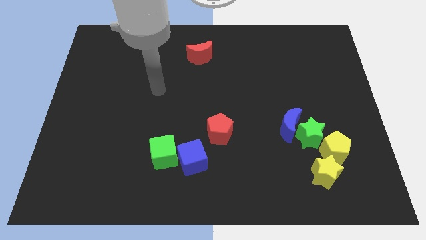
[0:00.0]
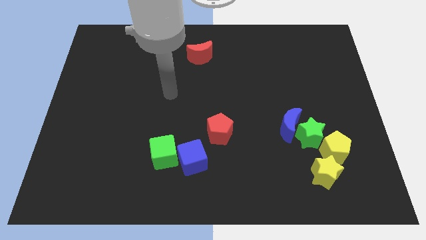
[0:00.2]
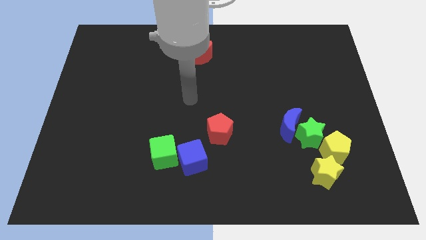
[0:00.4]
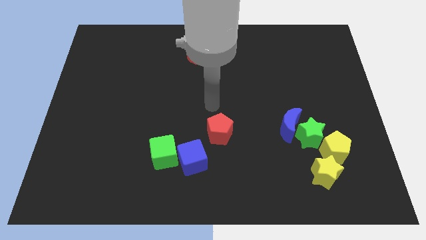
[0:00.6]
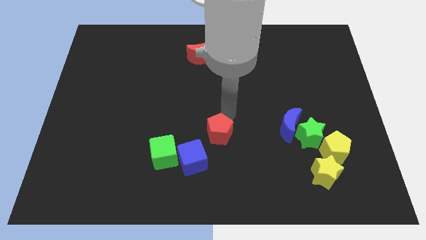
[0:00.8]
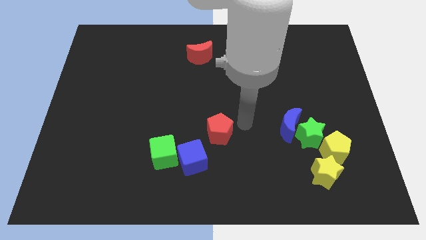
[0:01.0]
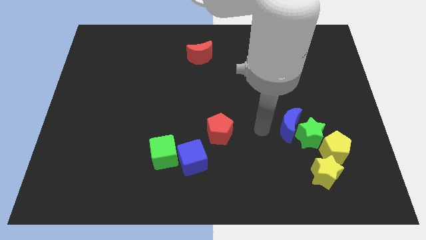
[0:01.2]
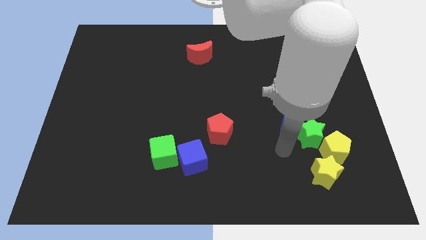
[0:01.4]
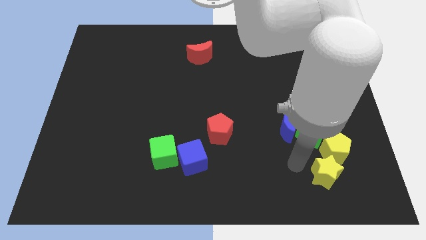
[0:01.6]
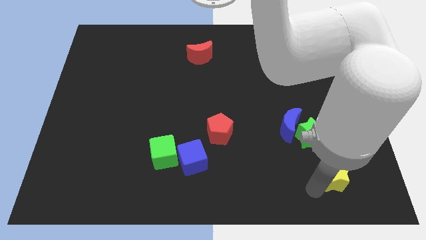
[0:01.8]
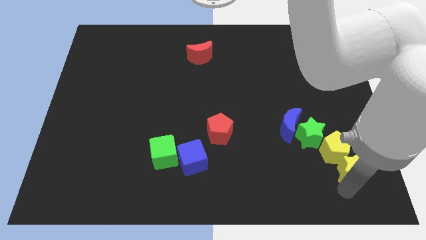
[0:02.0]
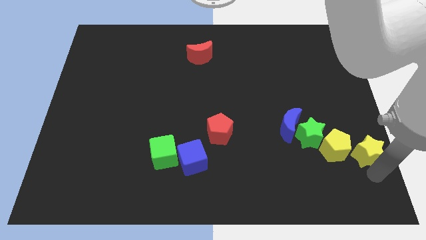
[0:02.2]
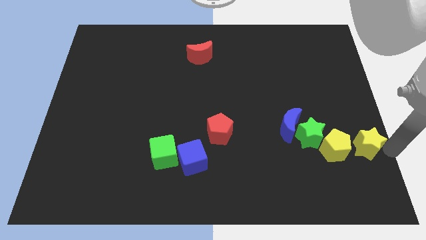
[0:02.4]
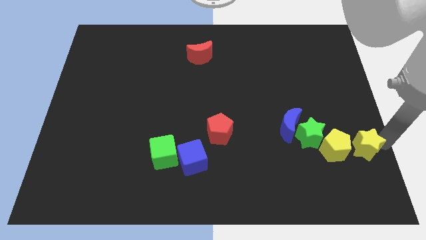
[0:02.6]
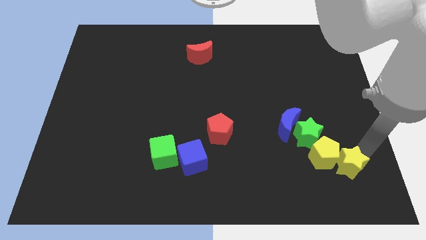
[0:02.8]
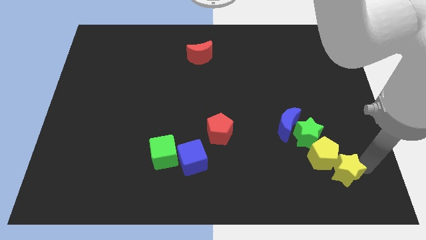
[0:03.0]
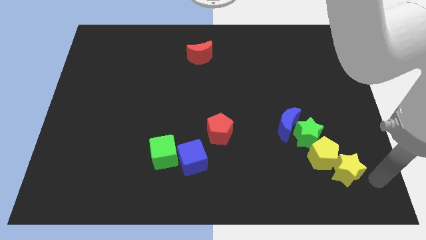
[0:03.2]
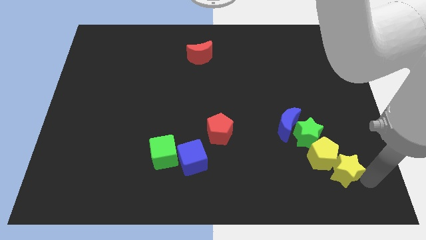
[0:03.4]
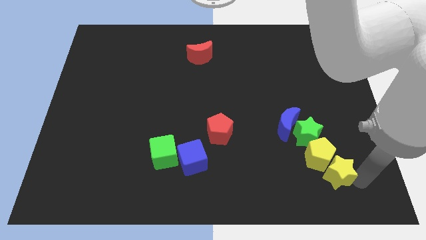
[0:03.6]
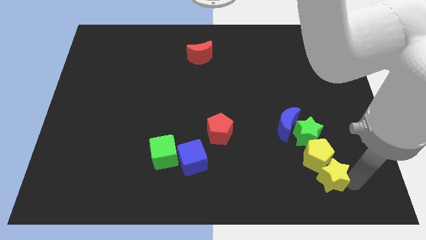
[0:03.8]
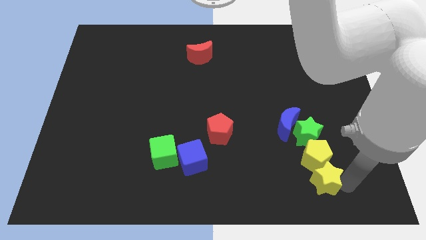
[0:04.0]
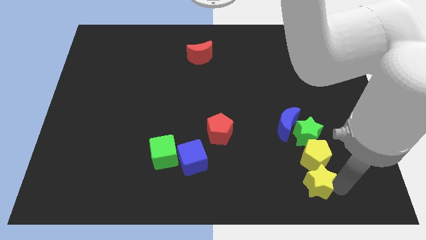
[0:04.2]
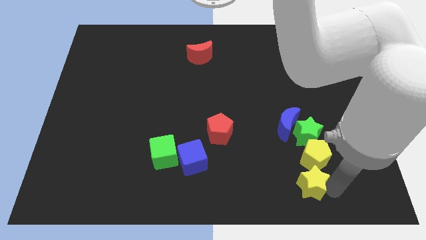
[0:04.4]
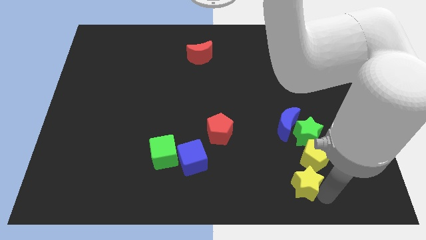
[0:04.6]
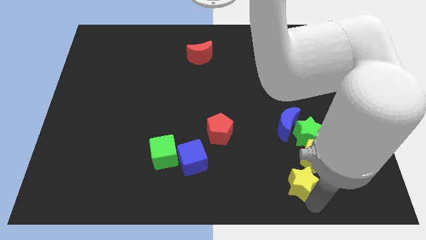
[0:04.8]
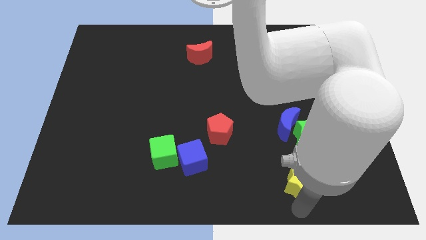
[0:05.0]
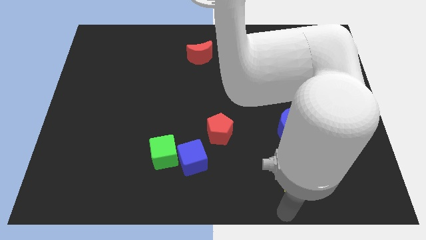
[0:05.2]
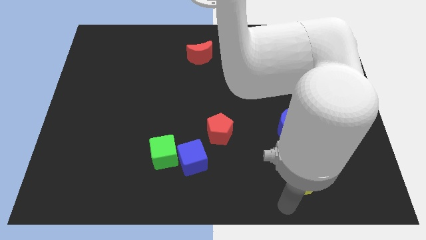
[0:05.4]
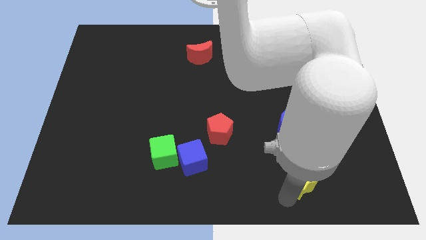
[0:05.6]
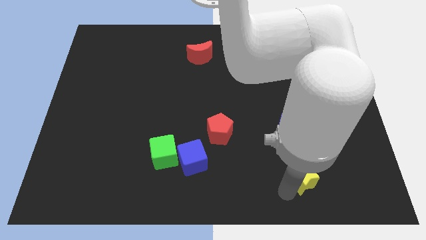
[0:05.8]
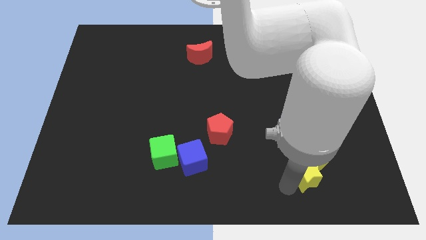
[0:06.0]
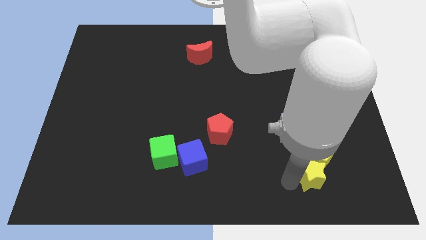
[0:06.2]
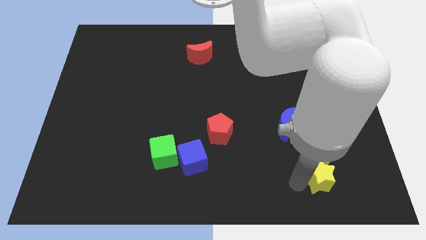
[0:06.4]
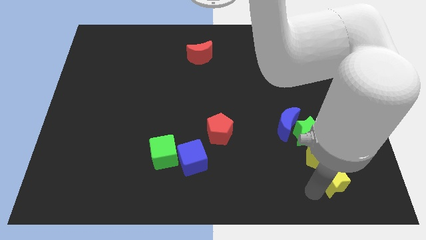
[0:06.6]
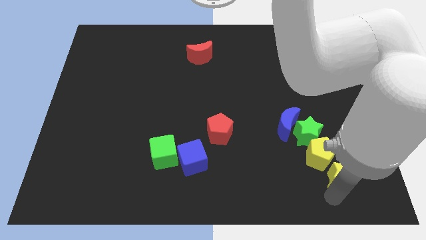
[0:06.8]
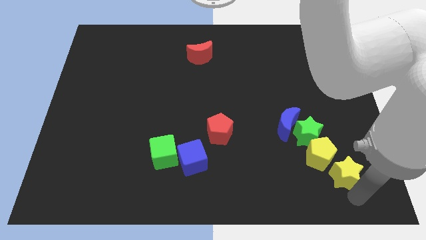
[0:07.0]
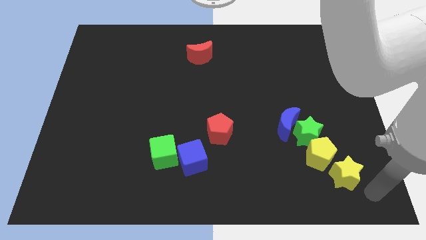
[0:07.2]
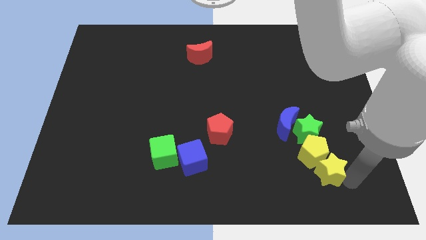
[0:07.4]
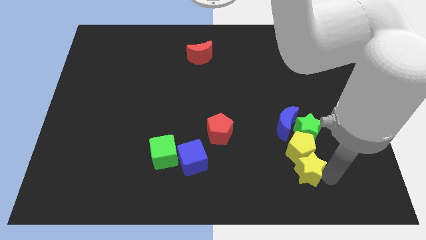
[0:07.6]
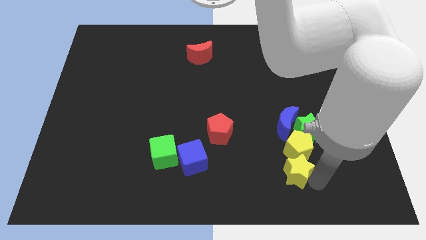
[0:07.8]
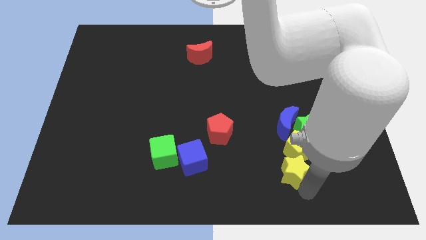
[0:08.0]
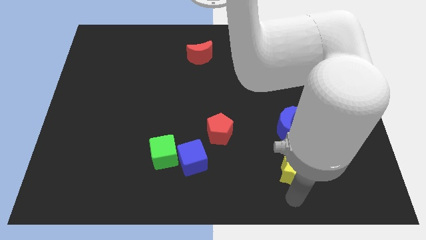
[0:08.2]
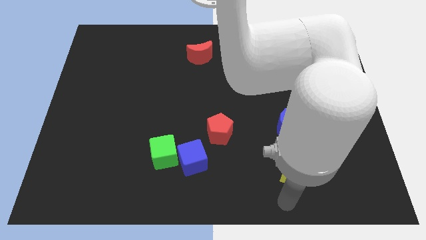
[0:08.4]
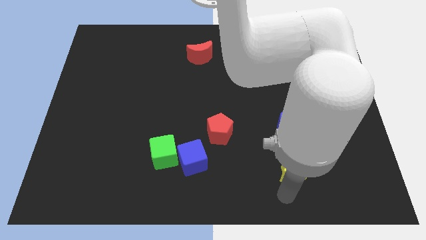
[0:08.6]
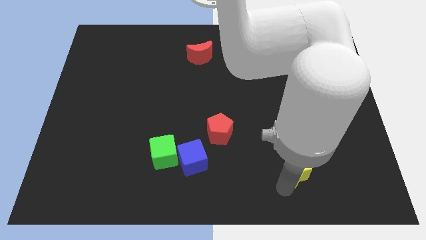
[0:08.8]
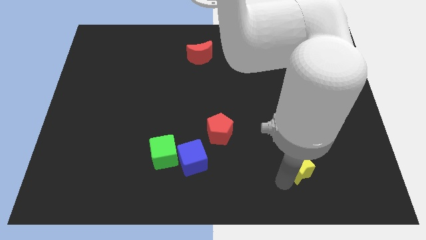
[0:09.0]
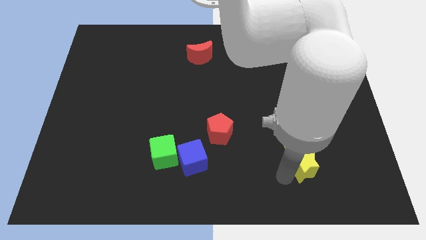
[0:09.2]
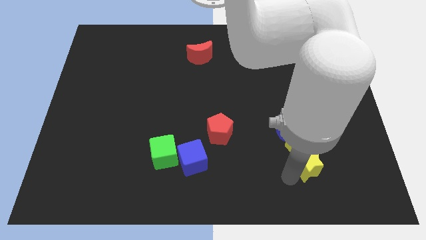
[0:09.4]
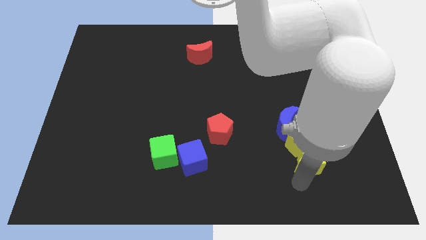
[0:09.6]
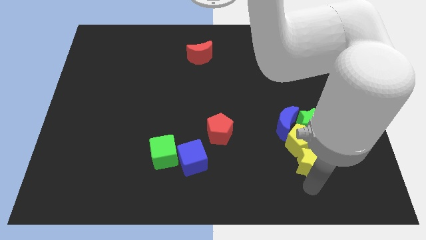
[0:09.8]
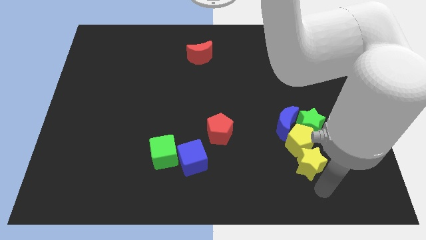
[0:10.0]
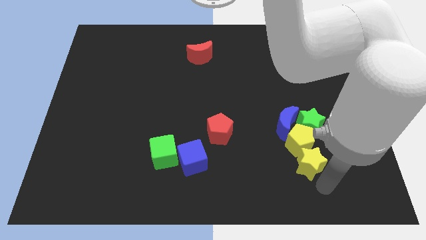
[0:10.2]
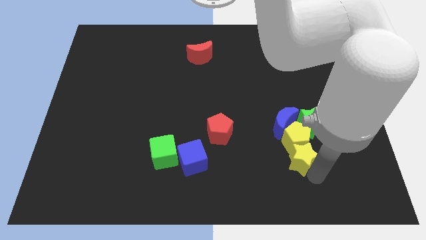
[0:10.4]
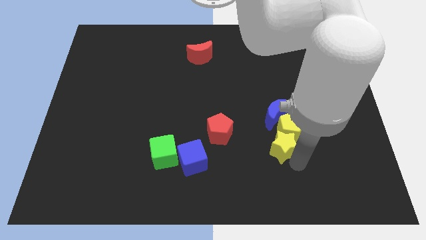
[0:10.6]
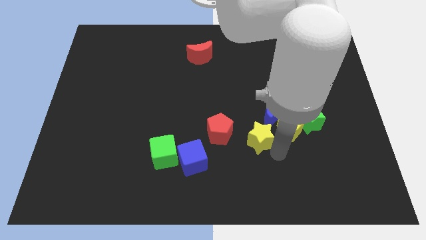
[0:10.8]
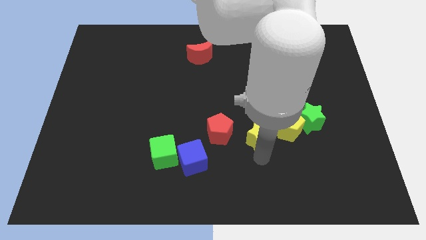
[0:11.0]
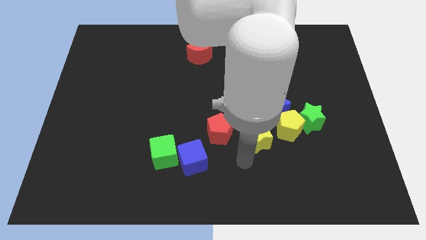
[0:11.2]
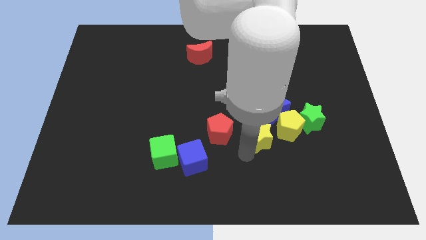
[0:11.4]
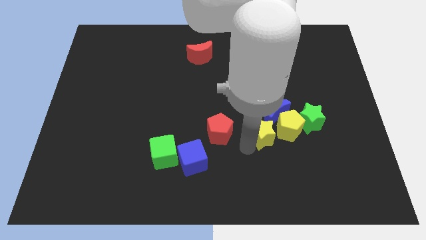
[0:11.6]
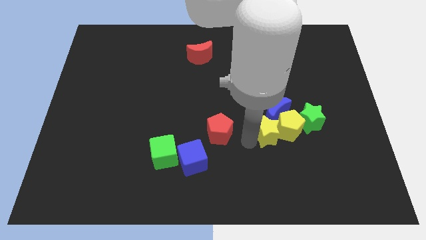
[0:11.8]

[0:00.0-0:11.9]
put the yellow star close to the blue moon

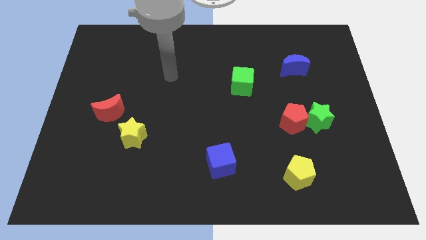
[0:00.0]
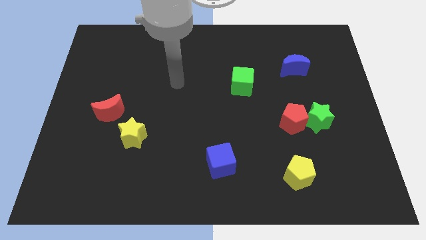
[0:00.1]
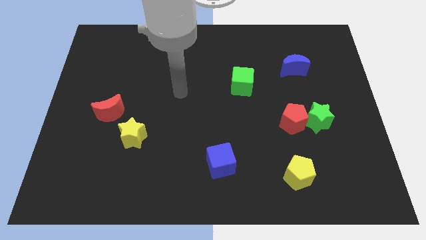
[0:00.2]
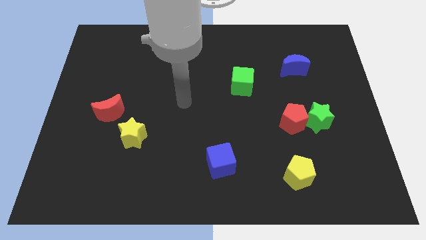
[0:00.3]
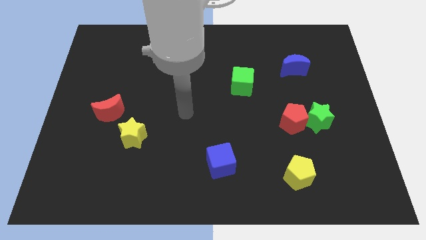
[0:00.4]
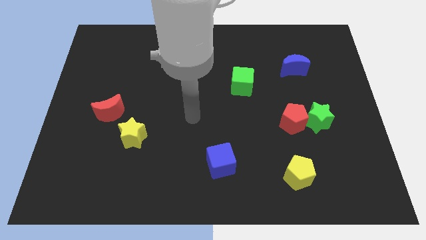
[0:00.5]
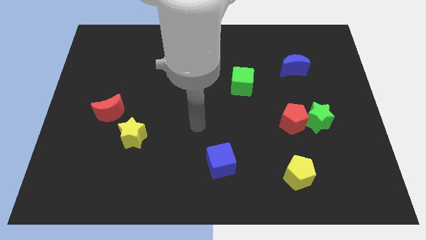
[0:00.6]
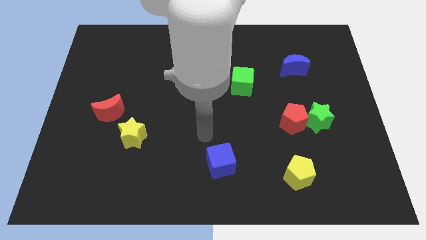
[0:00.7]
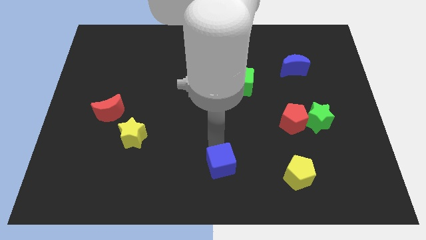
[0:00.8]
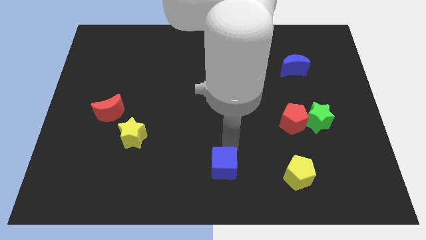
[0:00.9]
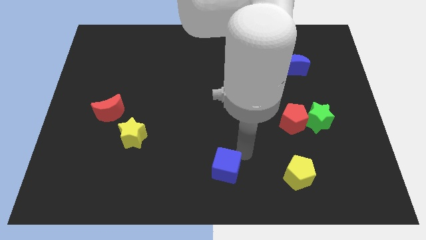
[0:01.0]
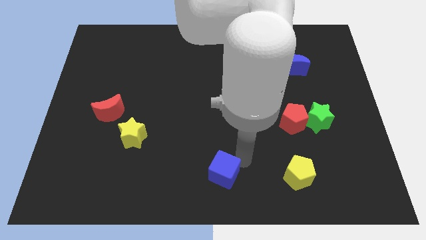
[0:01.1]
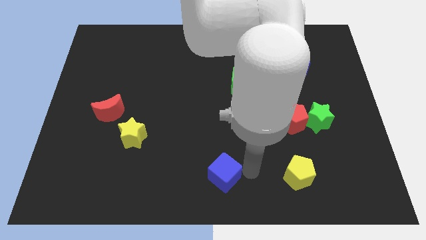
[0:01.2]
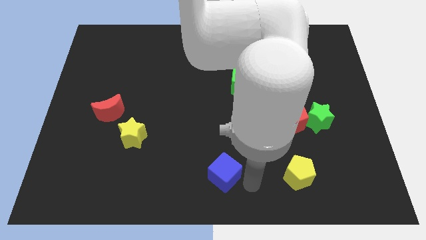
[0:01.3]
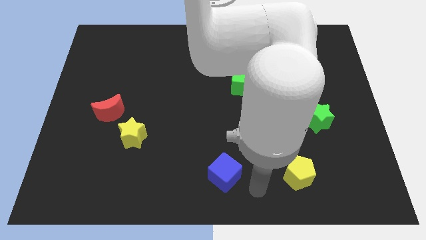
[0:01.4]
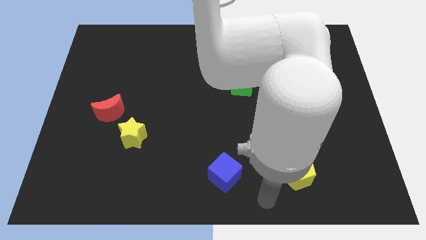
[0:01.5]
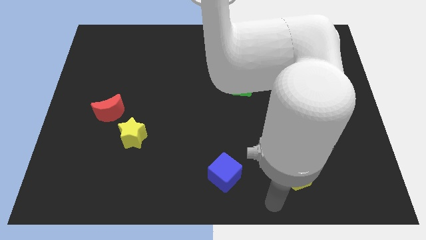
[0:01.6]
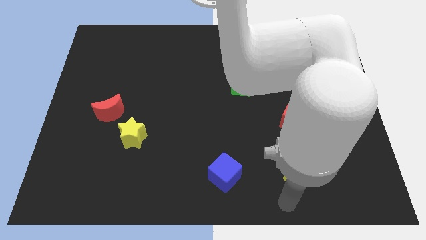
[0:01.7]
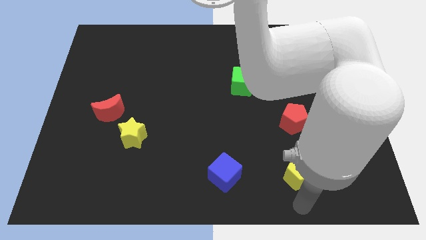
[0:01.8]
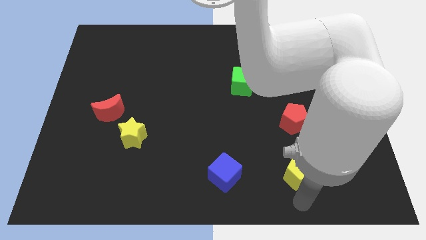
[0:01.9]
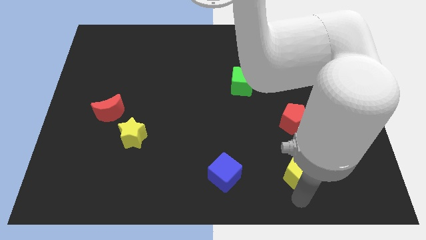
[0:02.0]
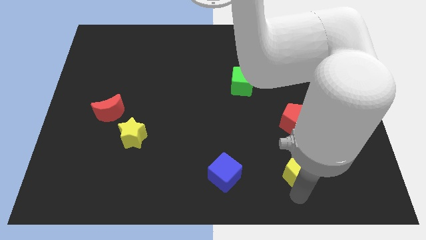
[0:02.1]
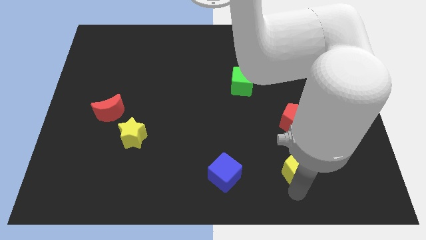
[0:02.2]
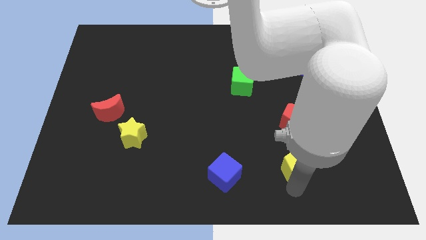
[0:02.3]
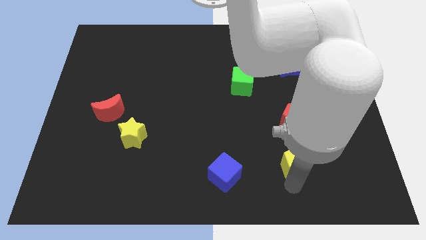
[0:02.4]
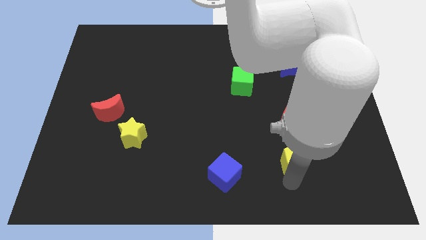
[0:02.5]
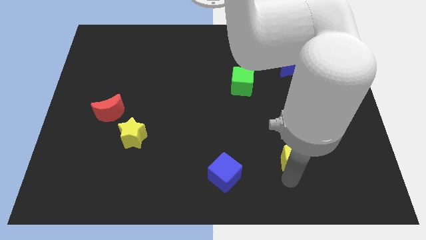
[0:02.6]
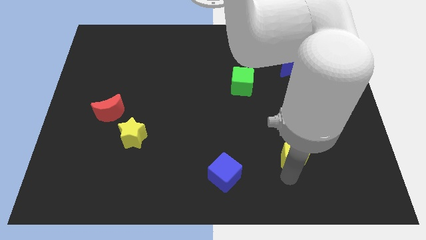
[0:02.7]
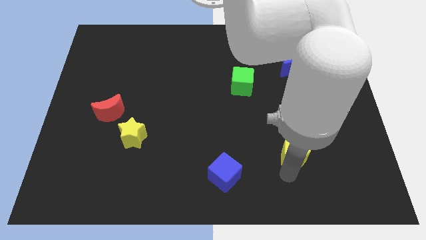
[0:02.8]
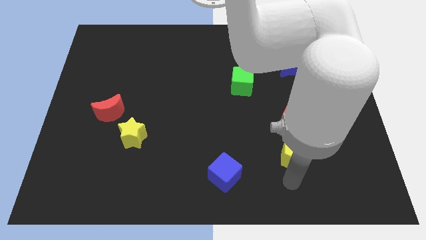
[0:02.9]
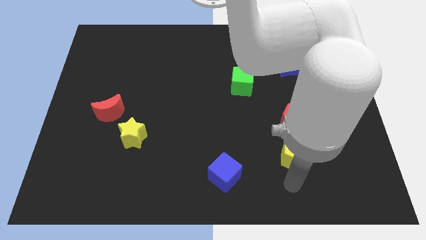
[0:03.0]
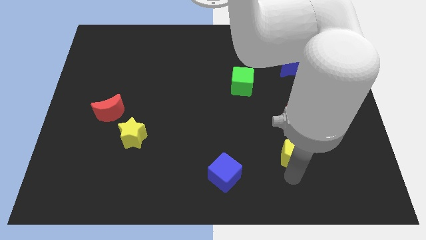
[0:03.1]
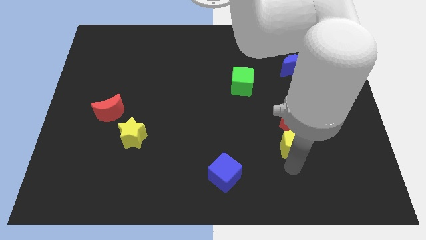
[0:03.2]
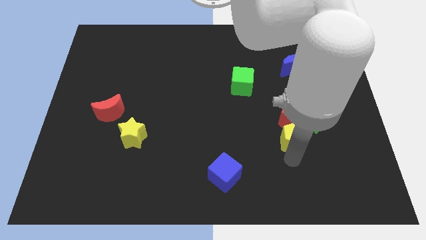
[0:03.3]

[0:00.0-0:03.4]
push the yellow pentagon to the red pentagon
